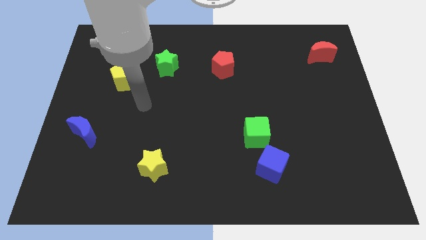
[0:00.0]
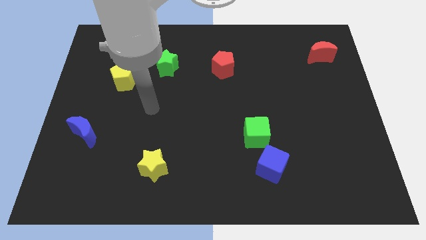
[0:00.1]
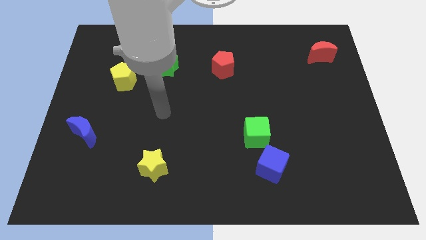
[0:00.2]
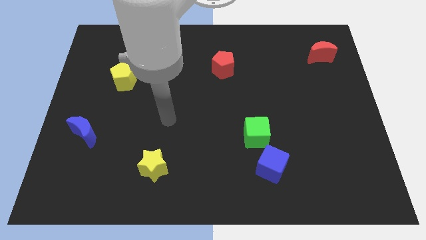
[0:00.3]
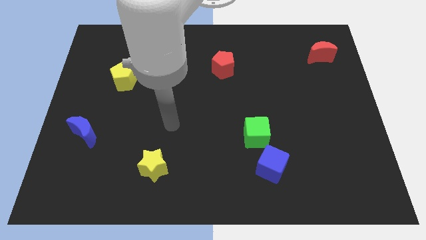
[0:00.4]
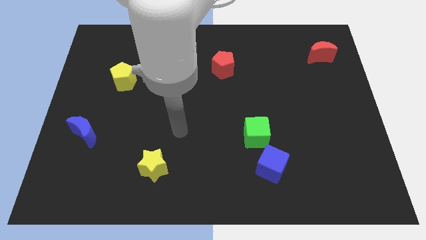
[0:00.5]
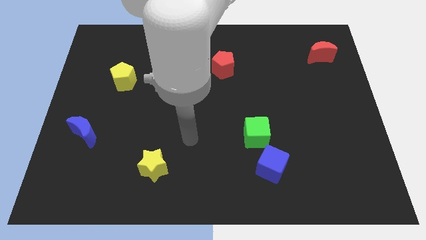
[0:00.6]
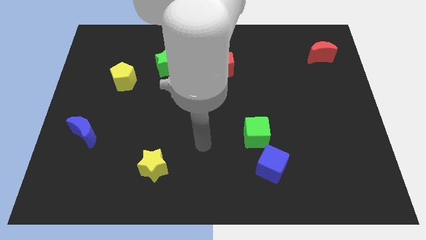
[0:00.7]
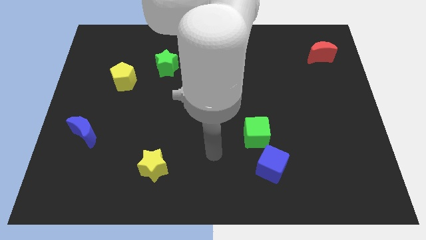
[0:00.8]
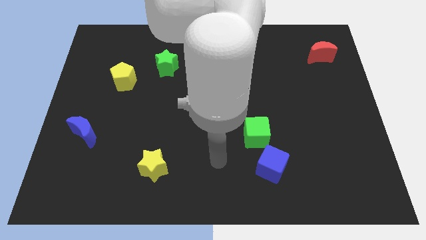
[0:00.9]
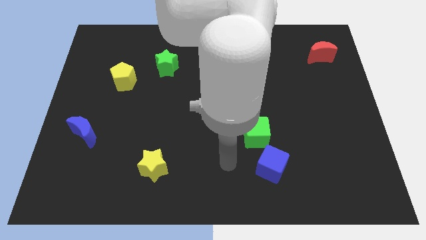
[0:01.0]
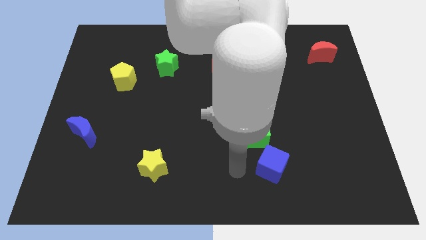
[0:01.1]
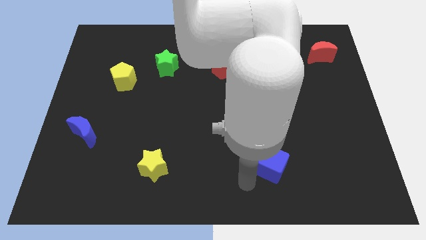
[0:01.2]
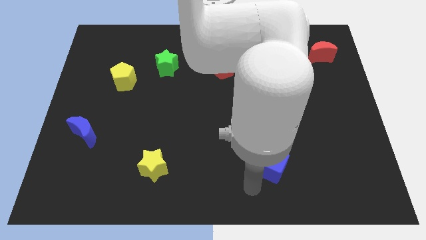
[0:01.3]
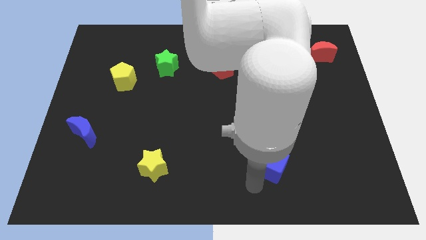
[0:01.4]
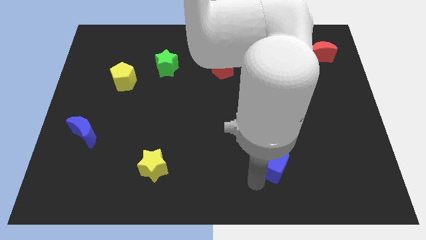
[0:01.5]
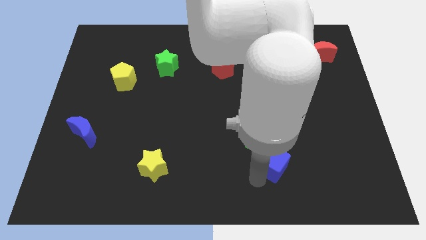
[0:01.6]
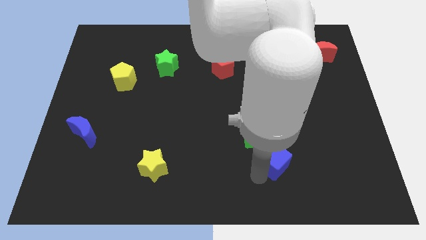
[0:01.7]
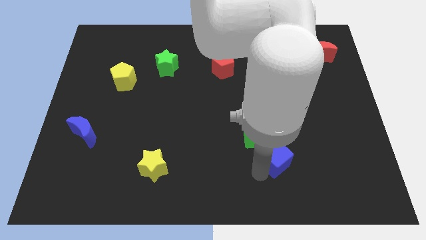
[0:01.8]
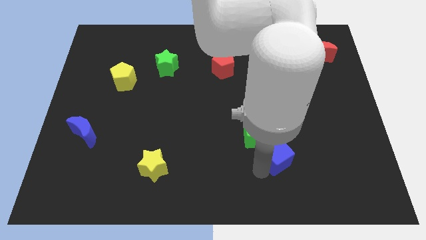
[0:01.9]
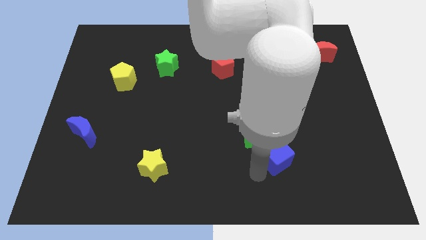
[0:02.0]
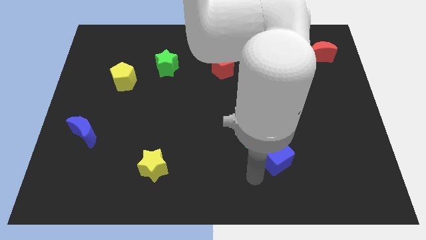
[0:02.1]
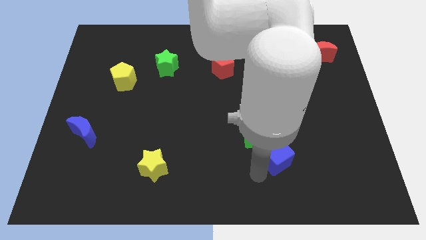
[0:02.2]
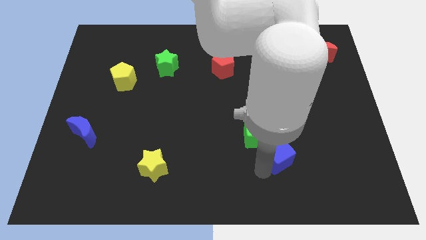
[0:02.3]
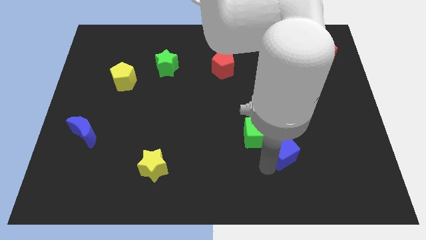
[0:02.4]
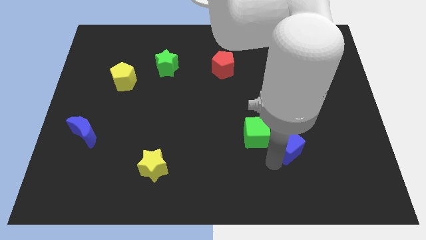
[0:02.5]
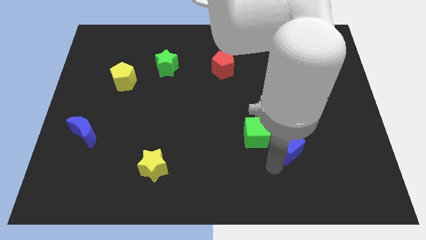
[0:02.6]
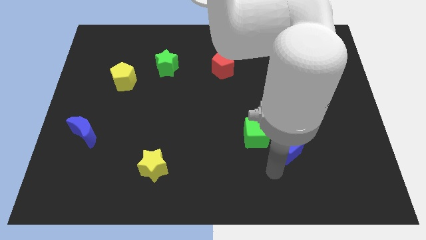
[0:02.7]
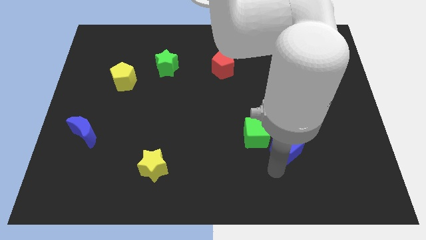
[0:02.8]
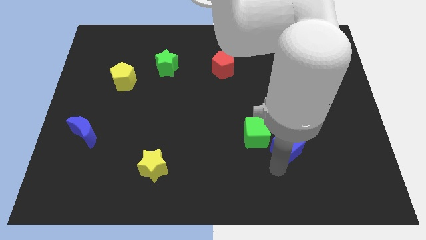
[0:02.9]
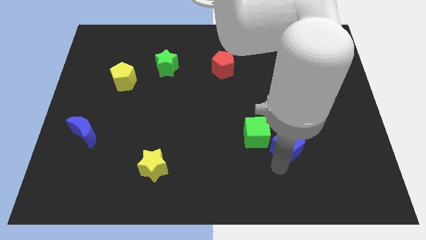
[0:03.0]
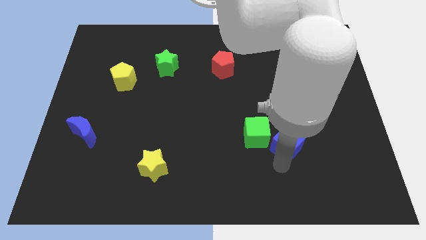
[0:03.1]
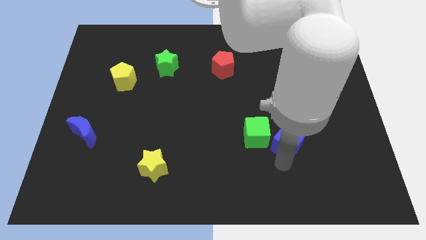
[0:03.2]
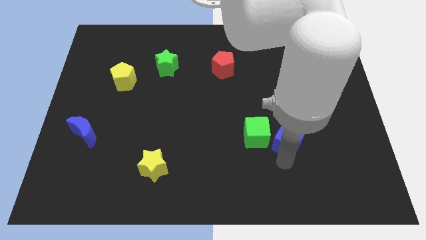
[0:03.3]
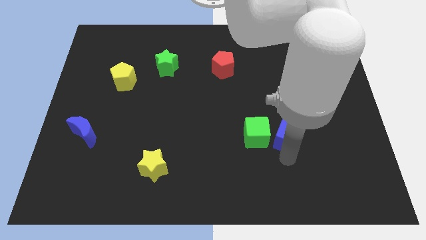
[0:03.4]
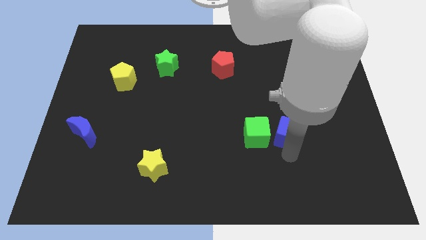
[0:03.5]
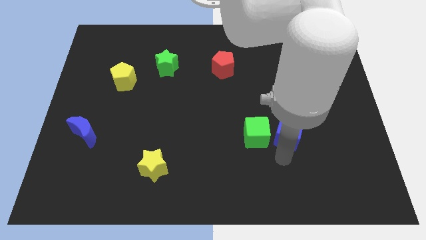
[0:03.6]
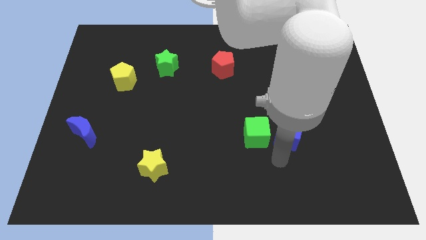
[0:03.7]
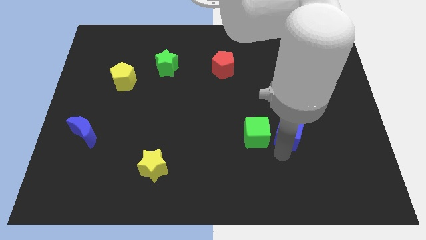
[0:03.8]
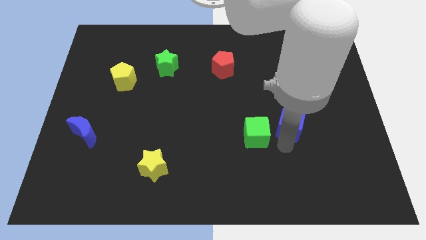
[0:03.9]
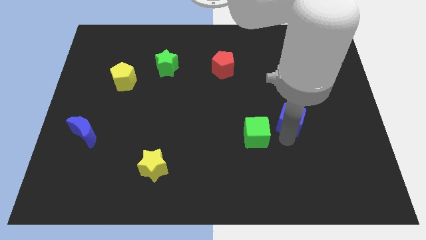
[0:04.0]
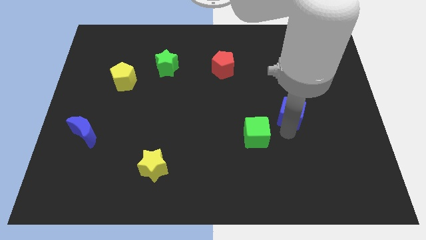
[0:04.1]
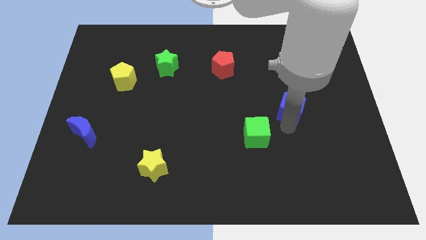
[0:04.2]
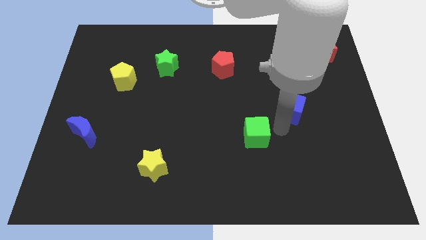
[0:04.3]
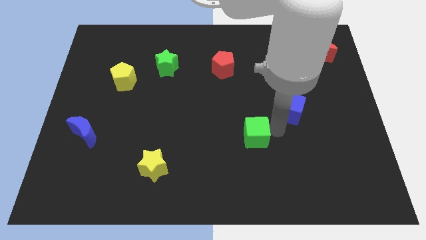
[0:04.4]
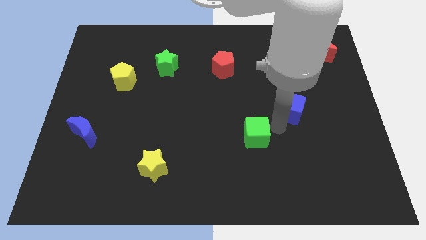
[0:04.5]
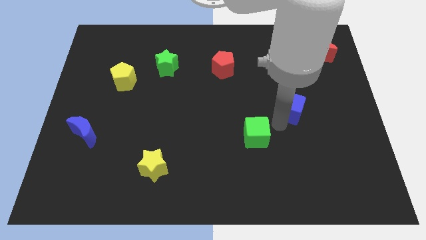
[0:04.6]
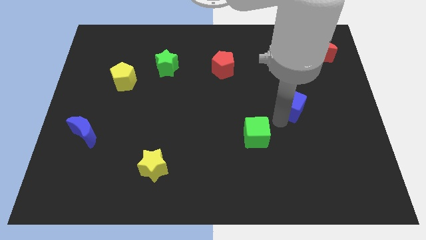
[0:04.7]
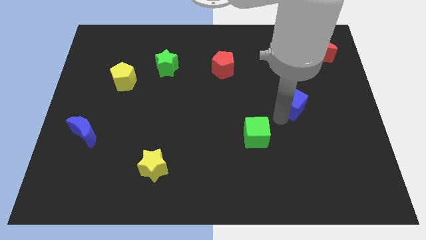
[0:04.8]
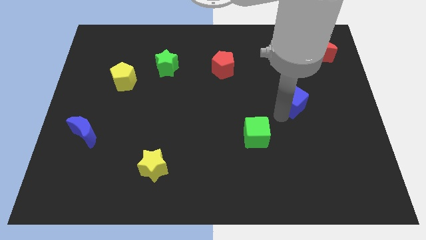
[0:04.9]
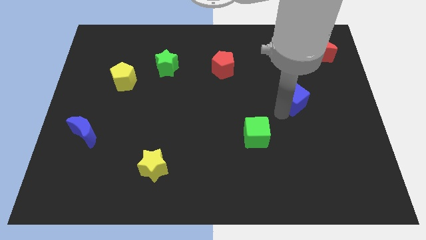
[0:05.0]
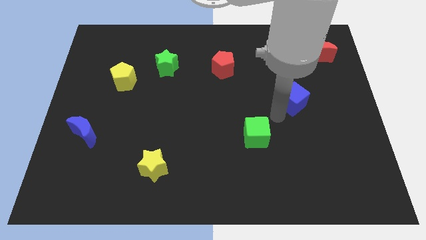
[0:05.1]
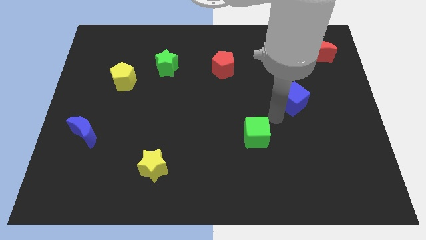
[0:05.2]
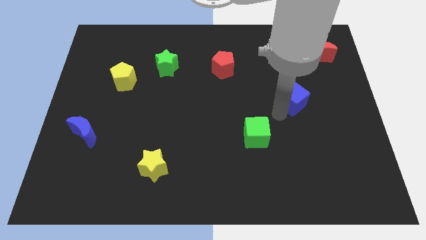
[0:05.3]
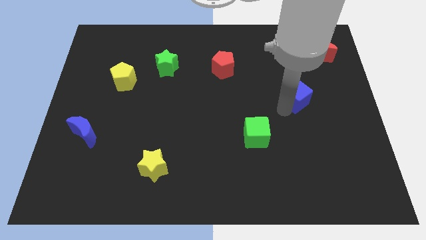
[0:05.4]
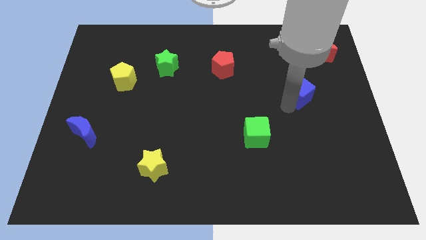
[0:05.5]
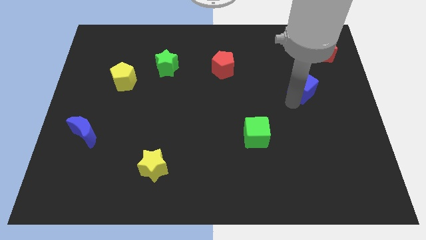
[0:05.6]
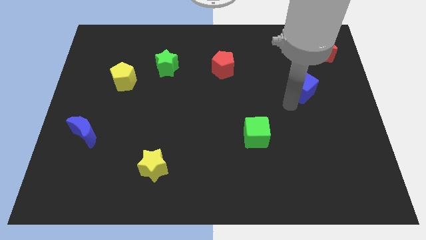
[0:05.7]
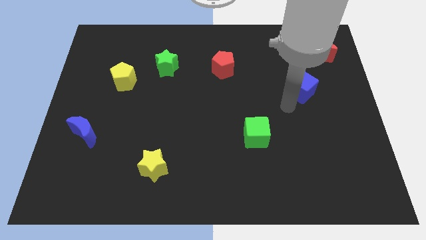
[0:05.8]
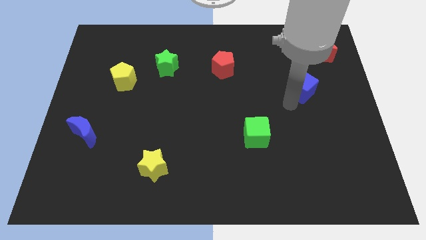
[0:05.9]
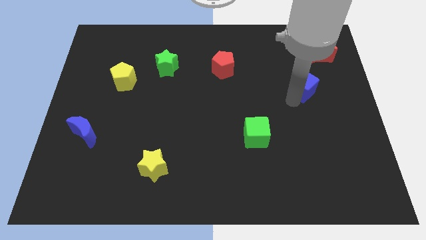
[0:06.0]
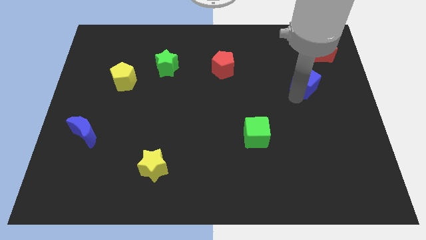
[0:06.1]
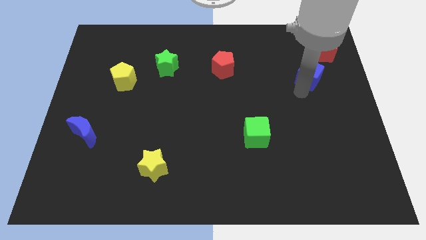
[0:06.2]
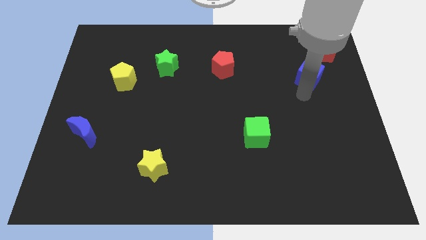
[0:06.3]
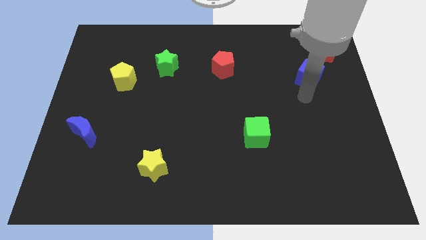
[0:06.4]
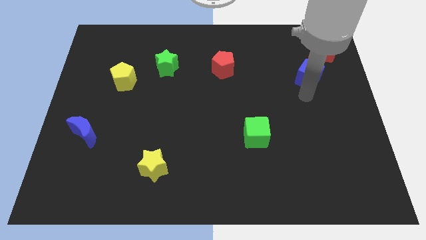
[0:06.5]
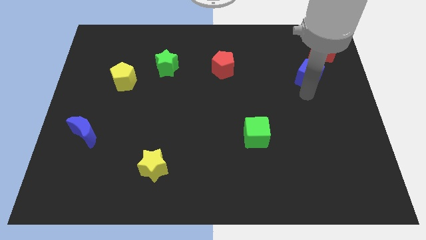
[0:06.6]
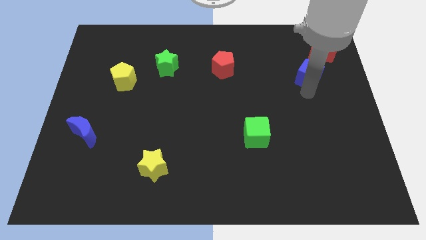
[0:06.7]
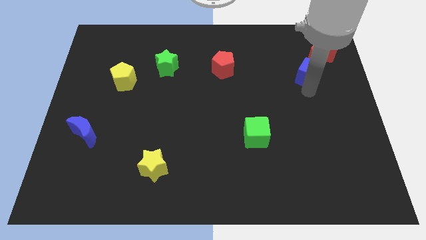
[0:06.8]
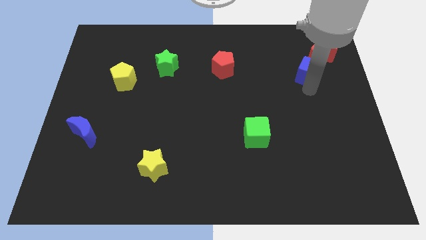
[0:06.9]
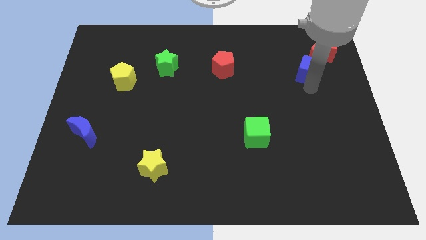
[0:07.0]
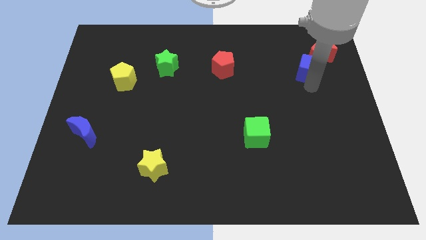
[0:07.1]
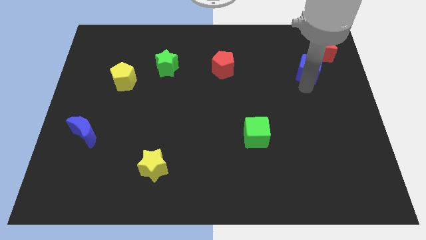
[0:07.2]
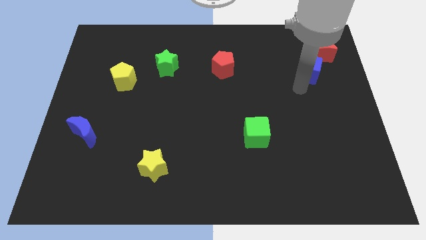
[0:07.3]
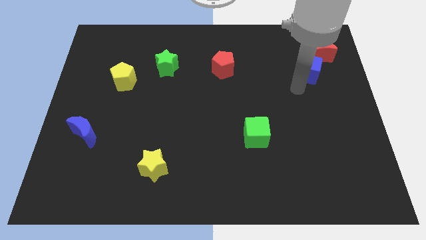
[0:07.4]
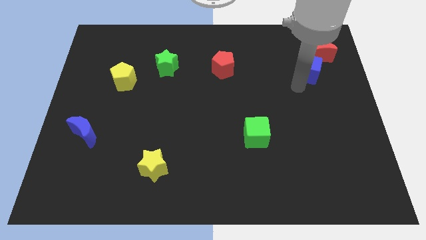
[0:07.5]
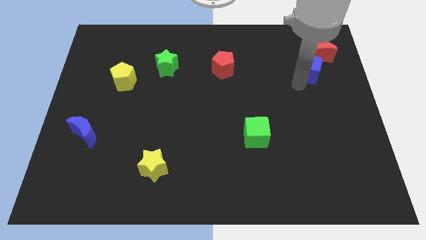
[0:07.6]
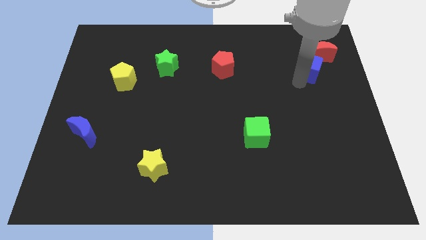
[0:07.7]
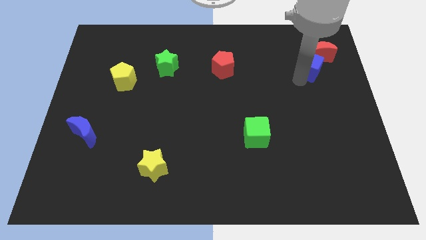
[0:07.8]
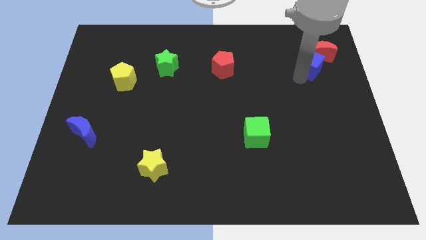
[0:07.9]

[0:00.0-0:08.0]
push the blue cube towards the red moon
